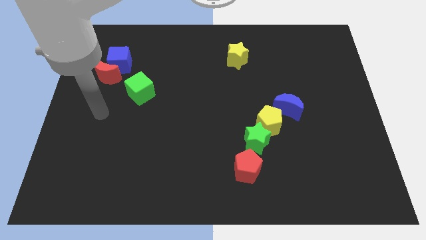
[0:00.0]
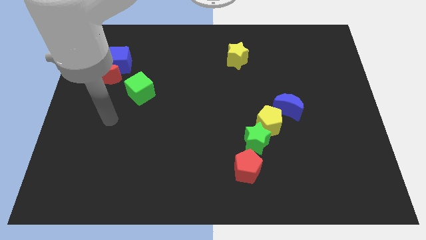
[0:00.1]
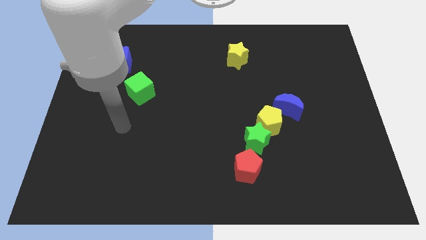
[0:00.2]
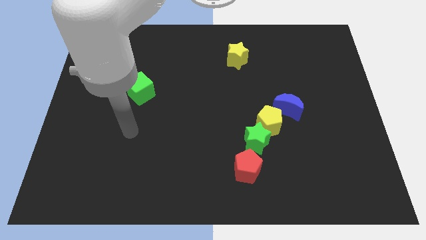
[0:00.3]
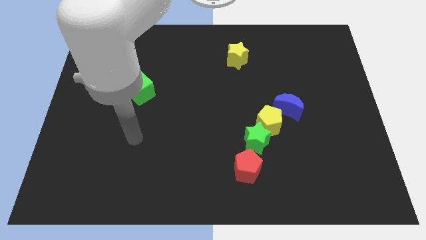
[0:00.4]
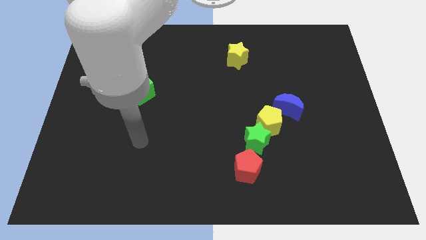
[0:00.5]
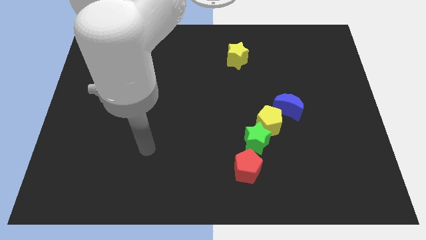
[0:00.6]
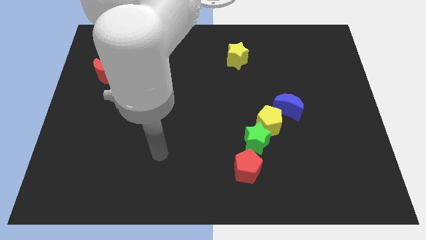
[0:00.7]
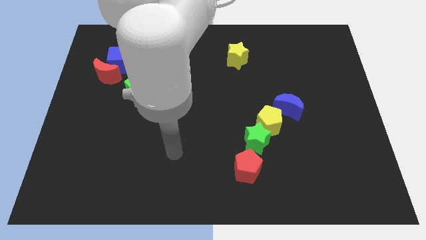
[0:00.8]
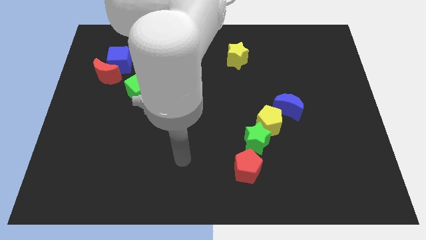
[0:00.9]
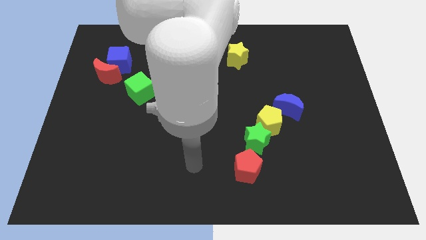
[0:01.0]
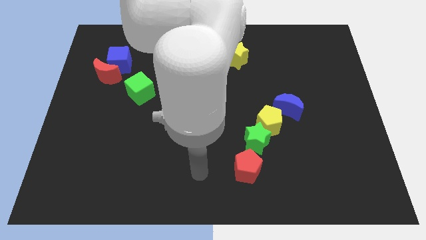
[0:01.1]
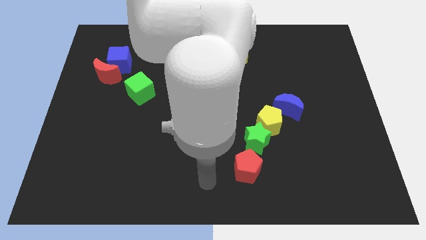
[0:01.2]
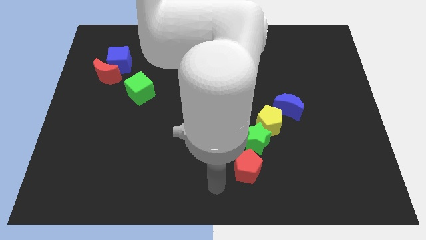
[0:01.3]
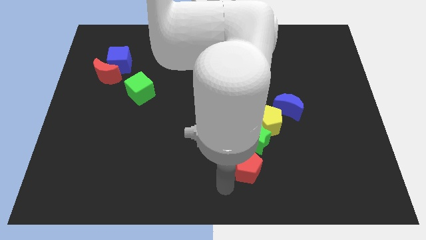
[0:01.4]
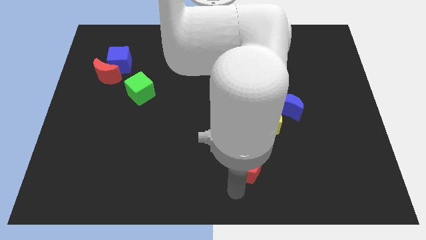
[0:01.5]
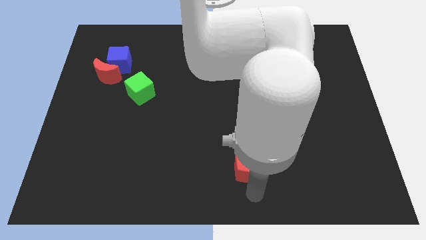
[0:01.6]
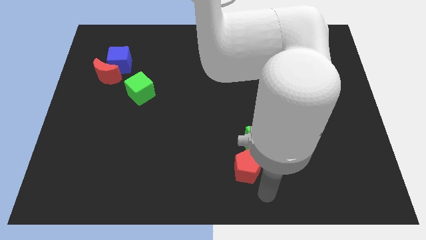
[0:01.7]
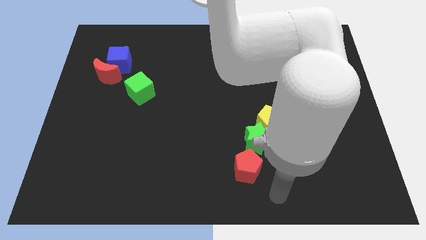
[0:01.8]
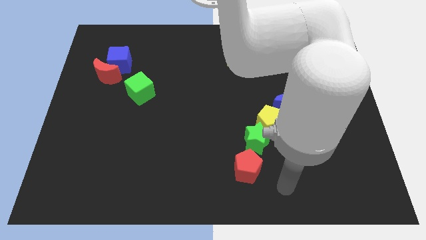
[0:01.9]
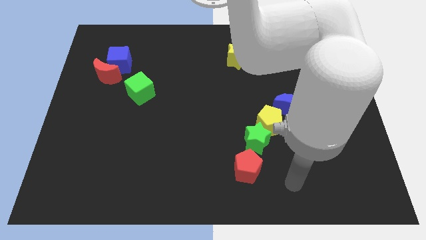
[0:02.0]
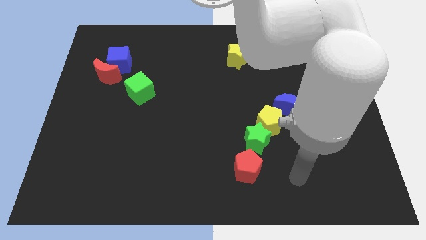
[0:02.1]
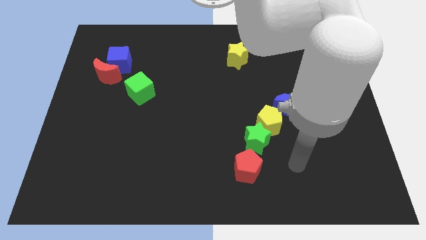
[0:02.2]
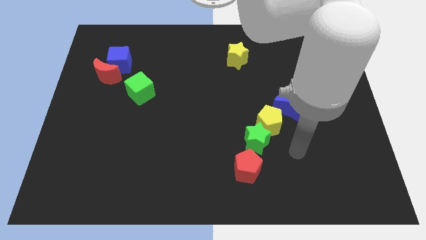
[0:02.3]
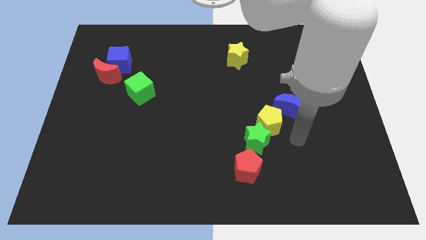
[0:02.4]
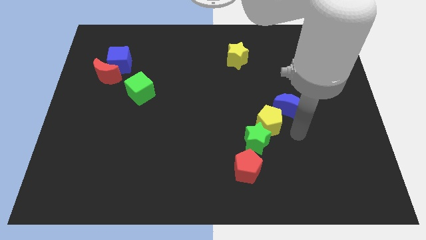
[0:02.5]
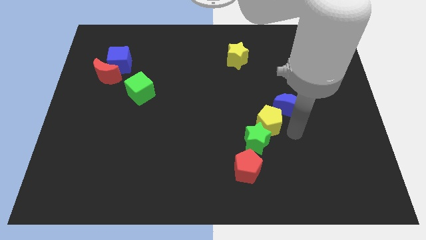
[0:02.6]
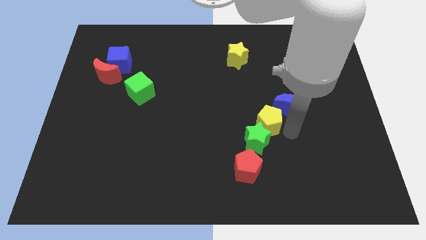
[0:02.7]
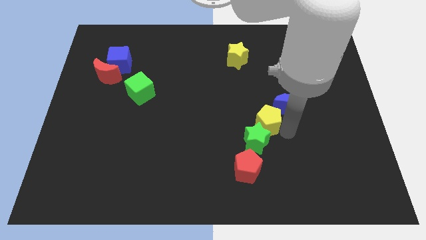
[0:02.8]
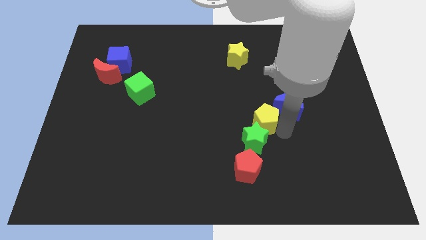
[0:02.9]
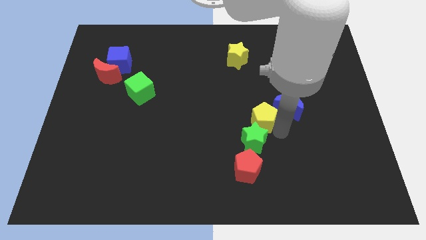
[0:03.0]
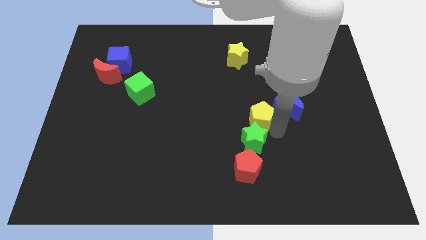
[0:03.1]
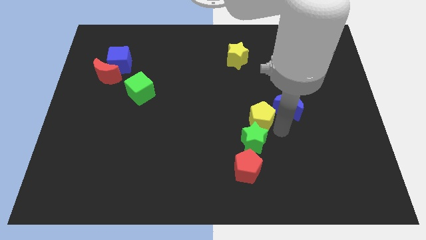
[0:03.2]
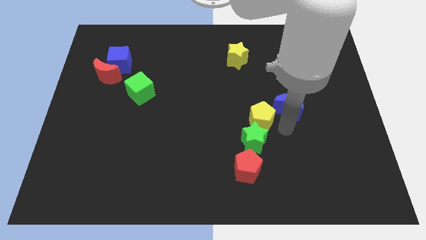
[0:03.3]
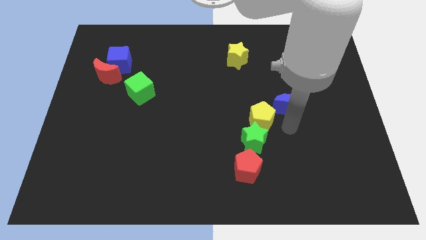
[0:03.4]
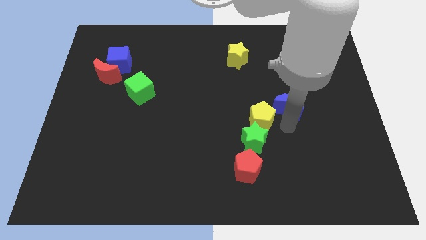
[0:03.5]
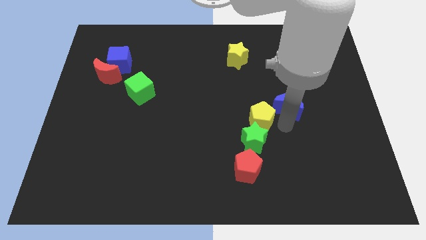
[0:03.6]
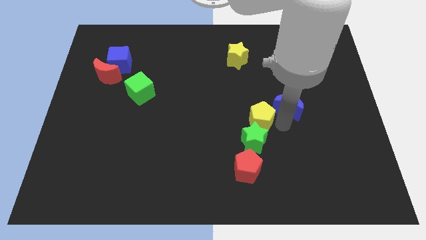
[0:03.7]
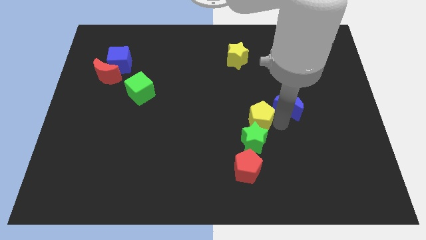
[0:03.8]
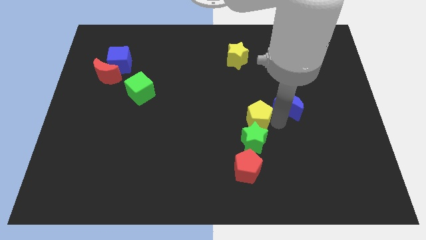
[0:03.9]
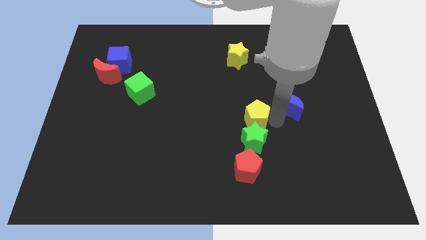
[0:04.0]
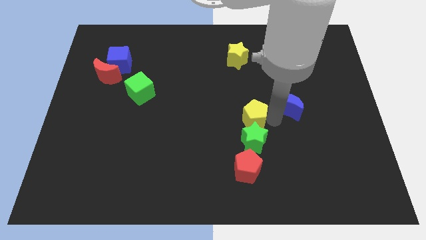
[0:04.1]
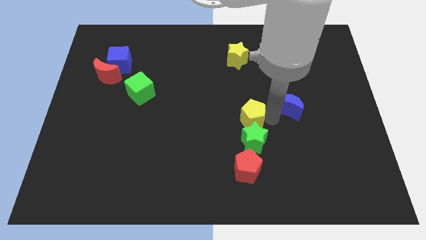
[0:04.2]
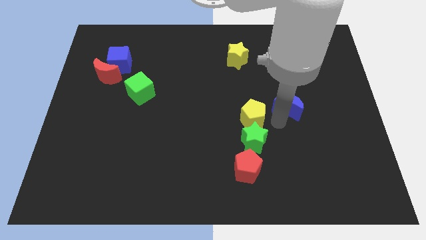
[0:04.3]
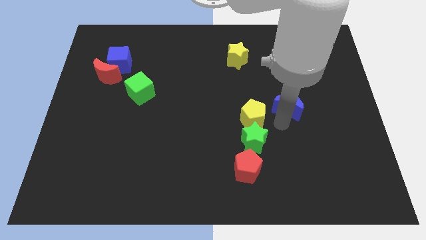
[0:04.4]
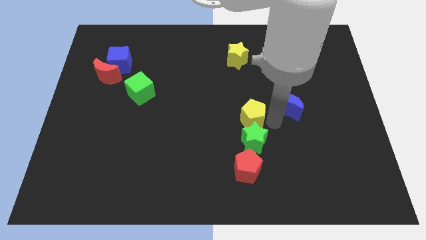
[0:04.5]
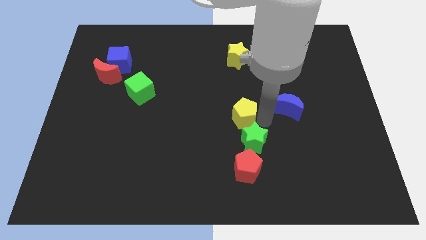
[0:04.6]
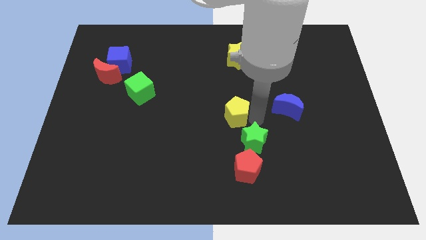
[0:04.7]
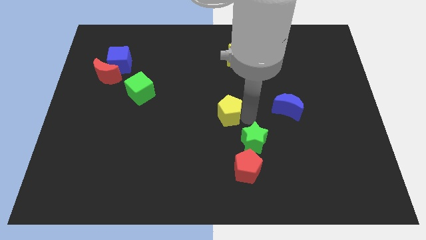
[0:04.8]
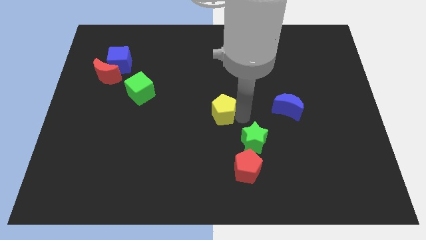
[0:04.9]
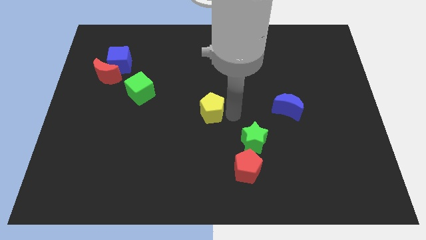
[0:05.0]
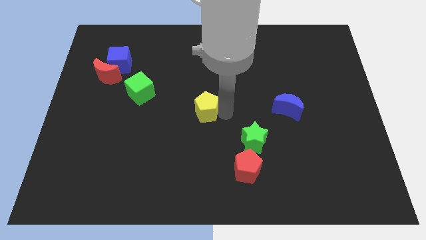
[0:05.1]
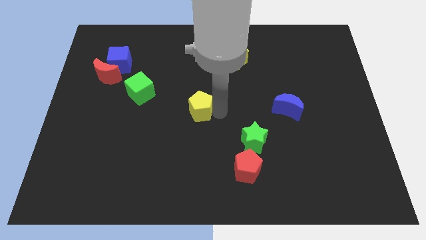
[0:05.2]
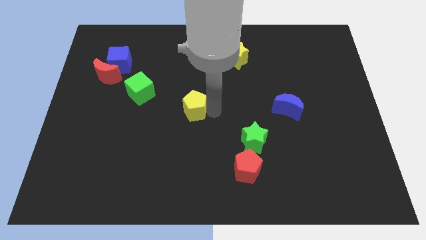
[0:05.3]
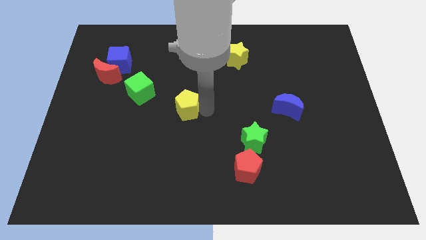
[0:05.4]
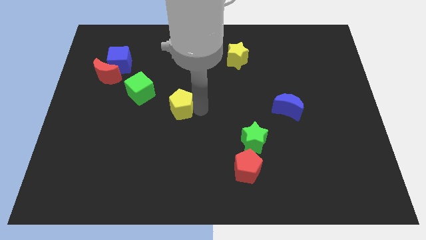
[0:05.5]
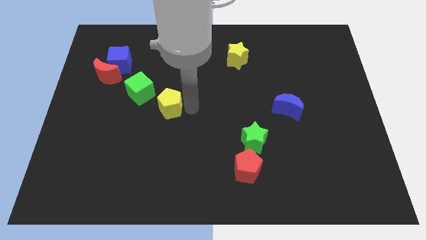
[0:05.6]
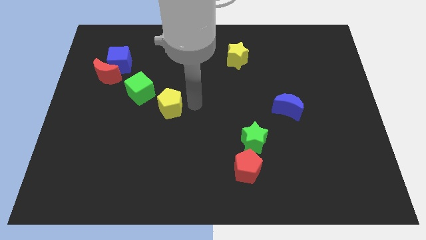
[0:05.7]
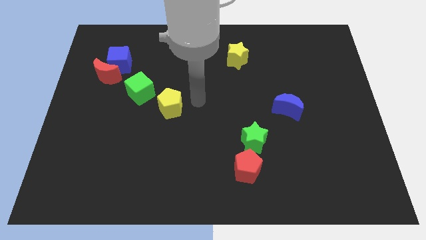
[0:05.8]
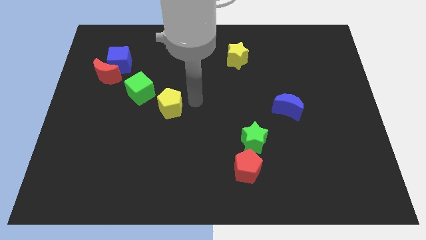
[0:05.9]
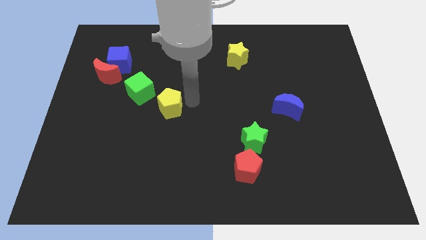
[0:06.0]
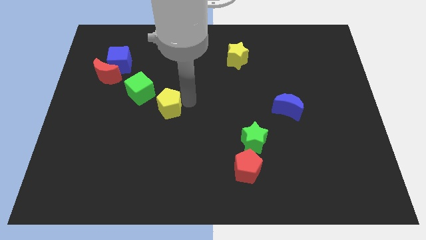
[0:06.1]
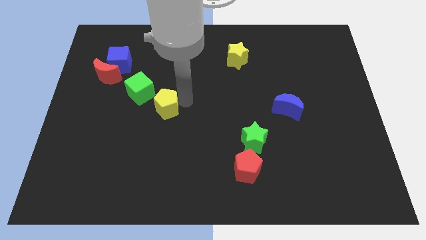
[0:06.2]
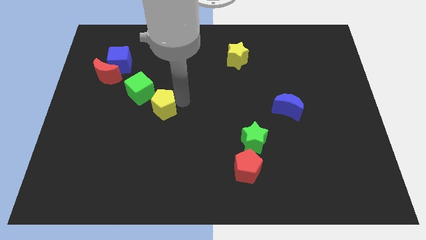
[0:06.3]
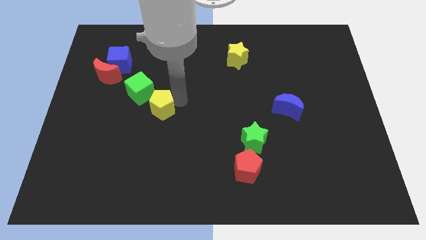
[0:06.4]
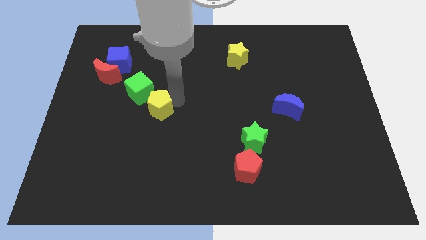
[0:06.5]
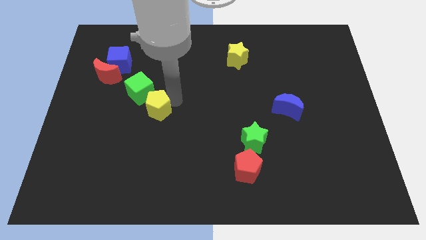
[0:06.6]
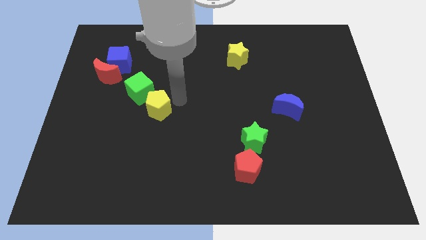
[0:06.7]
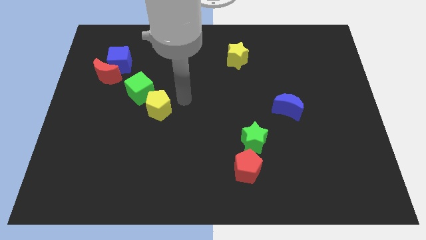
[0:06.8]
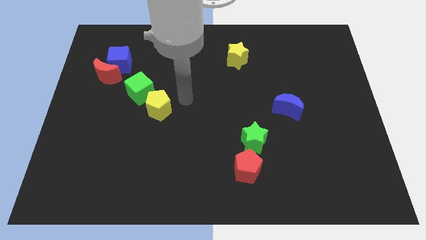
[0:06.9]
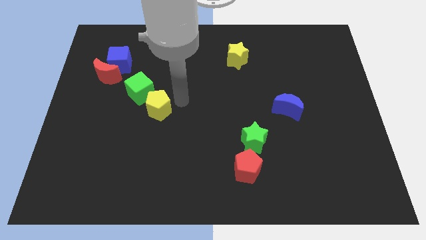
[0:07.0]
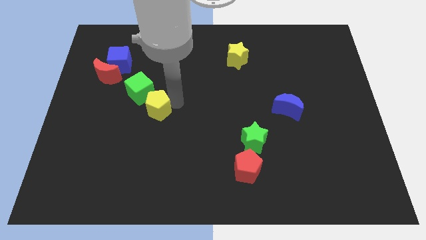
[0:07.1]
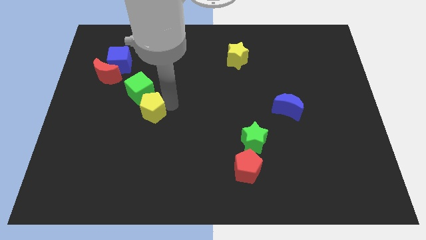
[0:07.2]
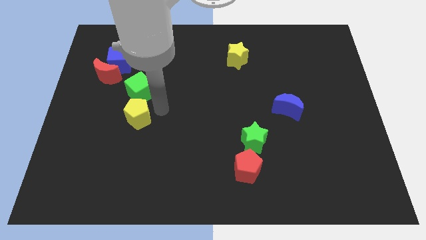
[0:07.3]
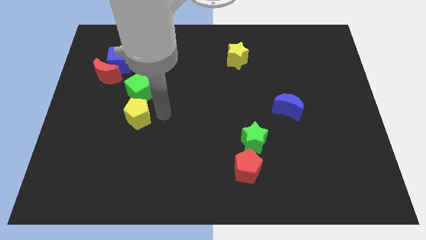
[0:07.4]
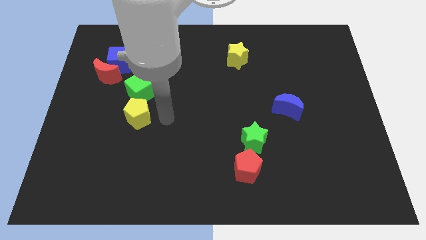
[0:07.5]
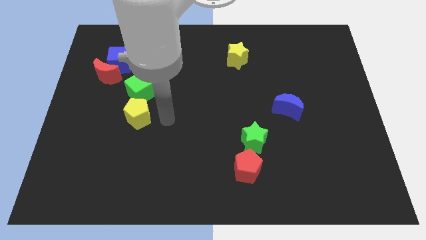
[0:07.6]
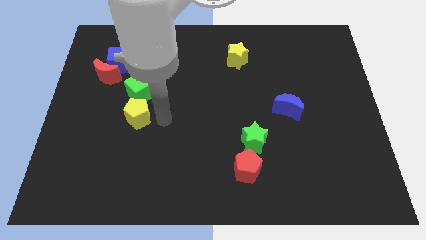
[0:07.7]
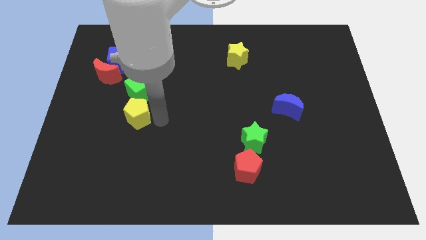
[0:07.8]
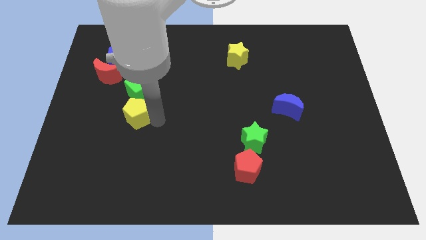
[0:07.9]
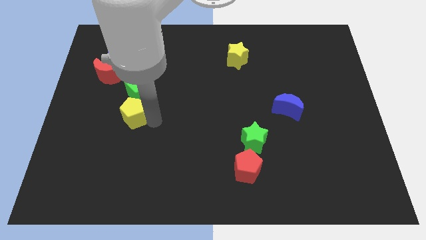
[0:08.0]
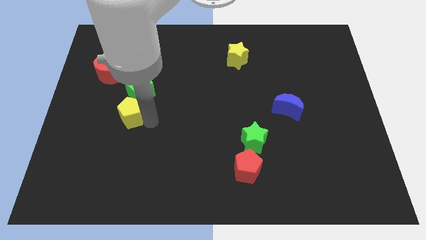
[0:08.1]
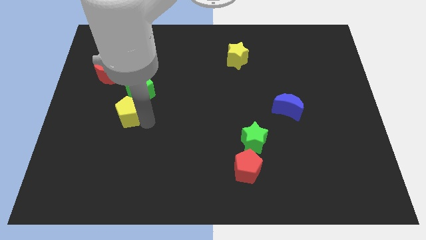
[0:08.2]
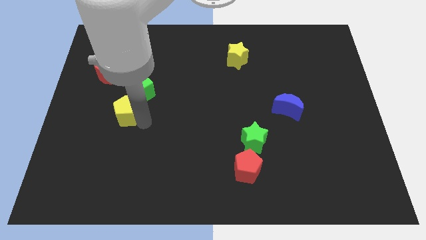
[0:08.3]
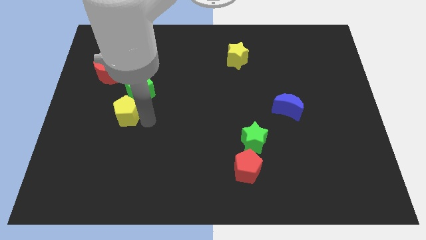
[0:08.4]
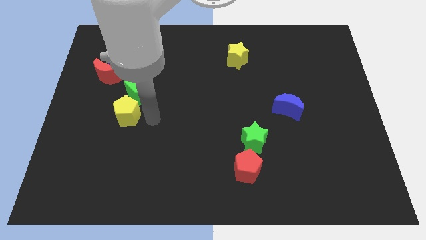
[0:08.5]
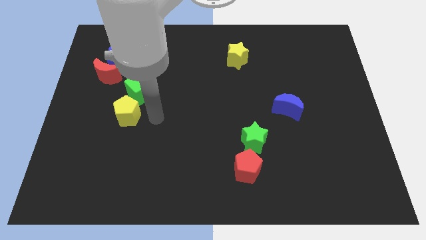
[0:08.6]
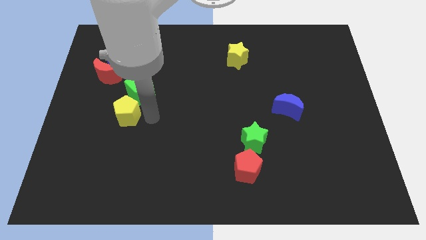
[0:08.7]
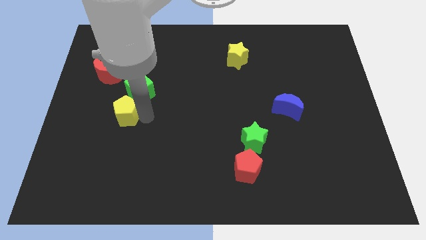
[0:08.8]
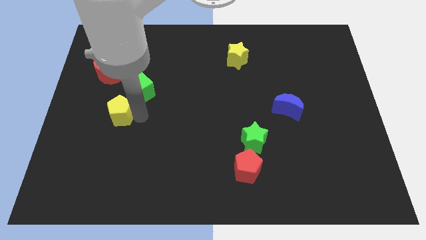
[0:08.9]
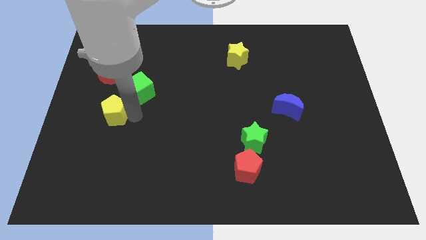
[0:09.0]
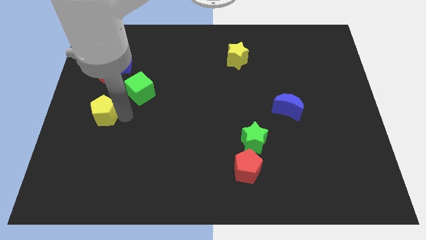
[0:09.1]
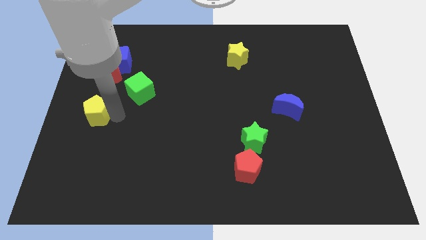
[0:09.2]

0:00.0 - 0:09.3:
move the yellow pentagon to the left side
